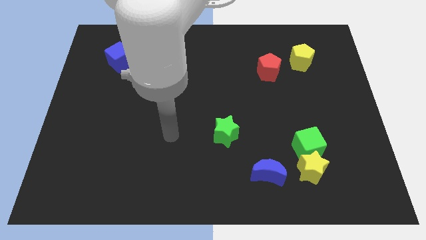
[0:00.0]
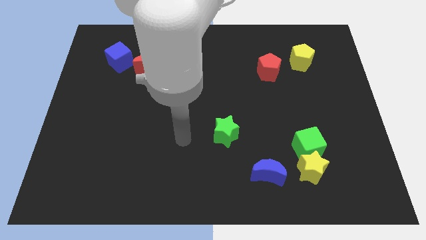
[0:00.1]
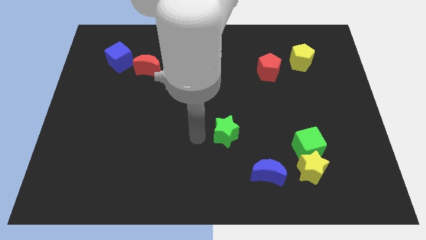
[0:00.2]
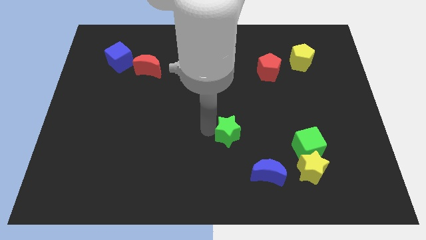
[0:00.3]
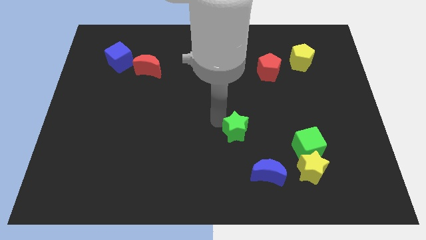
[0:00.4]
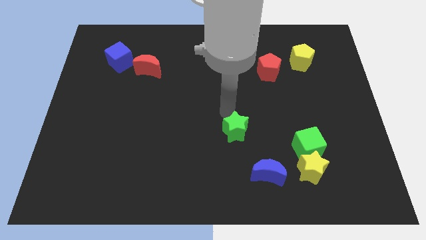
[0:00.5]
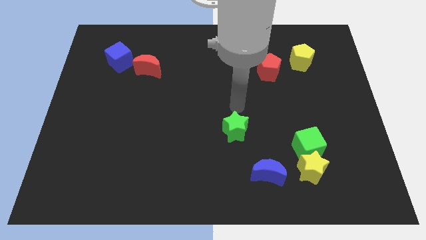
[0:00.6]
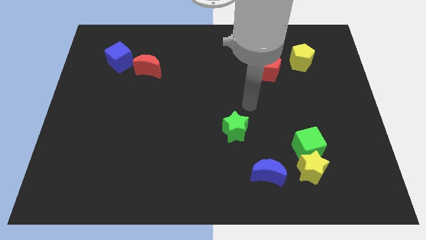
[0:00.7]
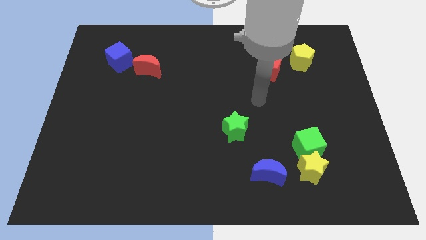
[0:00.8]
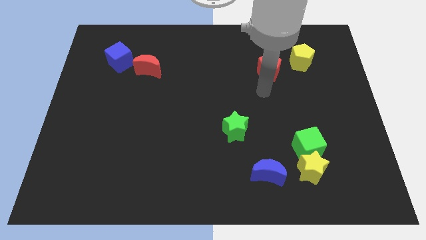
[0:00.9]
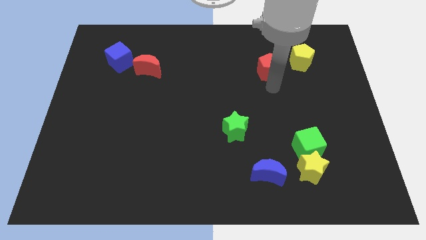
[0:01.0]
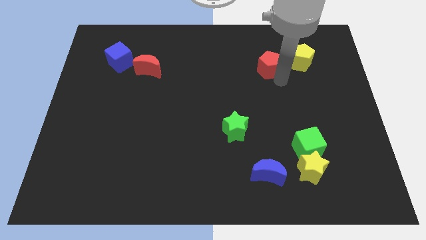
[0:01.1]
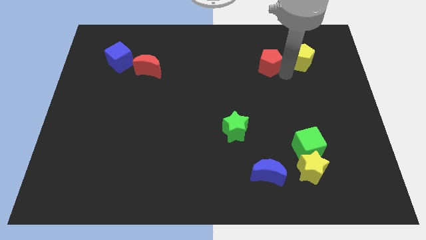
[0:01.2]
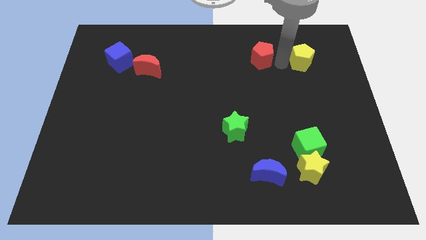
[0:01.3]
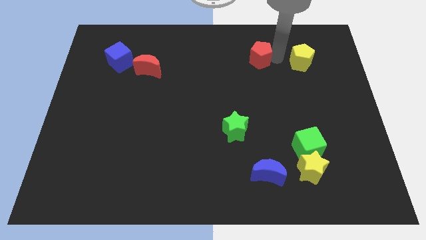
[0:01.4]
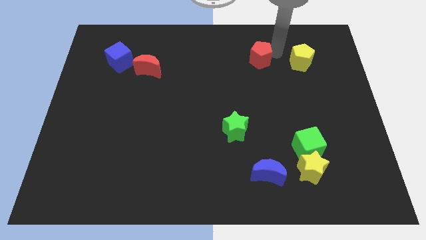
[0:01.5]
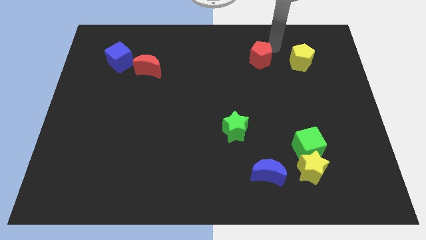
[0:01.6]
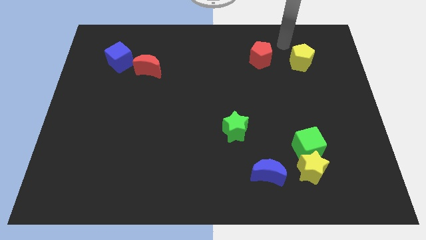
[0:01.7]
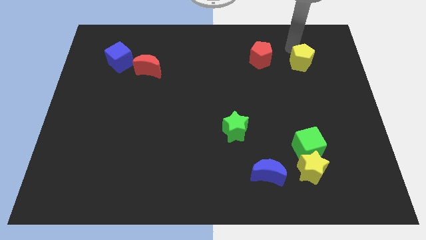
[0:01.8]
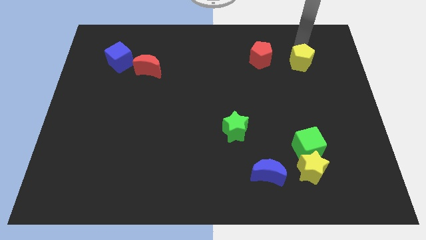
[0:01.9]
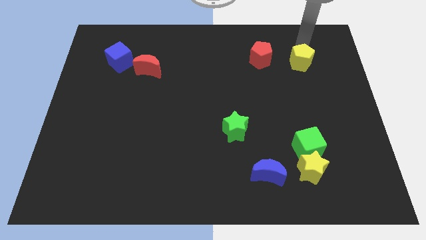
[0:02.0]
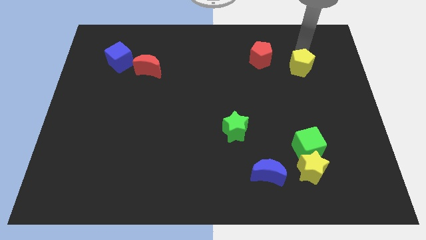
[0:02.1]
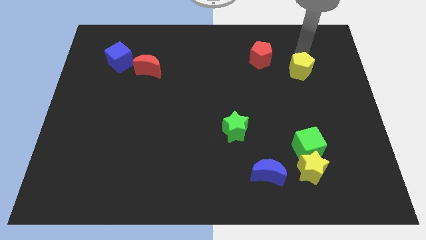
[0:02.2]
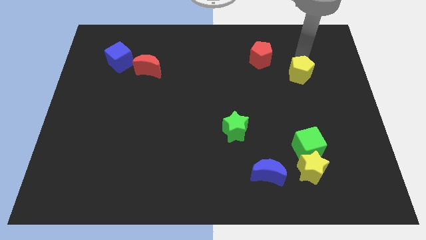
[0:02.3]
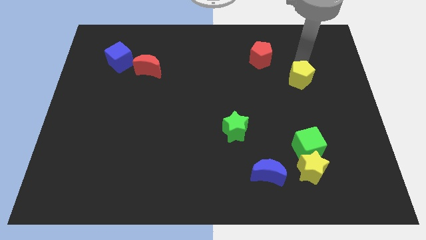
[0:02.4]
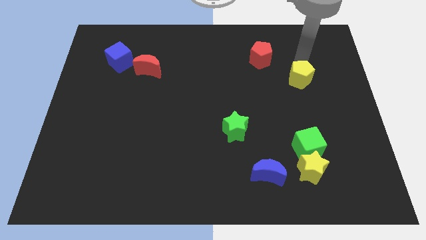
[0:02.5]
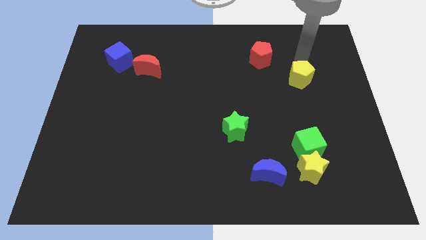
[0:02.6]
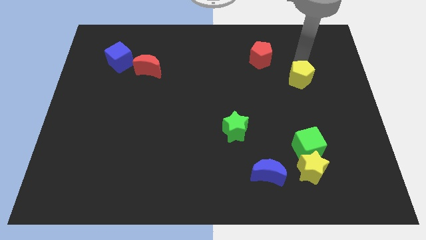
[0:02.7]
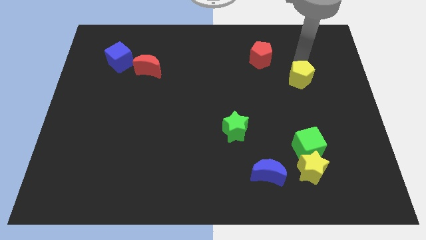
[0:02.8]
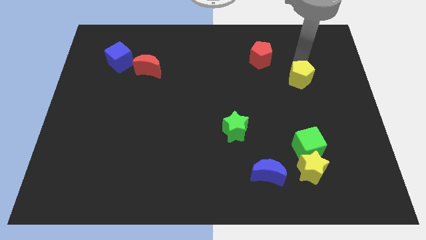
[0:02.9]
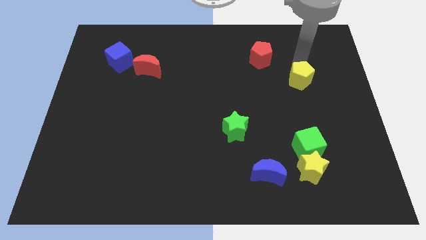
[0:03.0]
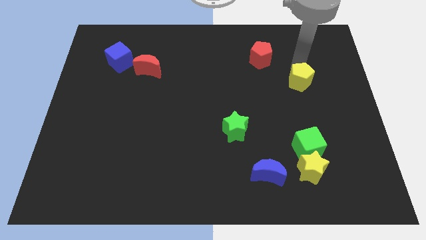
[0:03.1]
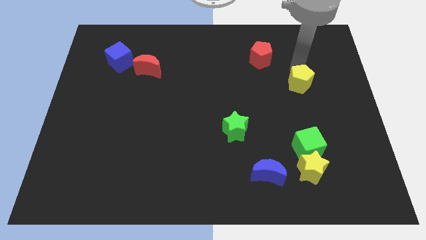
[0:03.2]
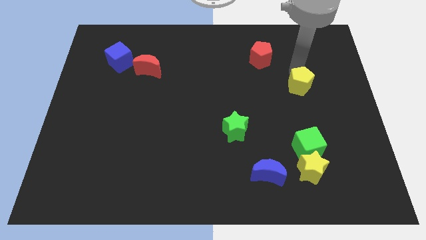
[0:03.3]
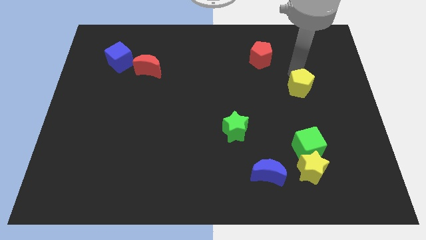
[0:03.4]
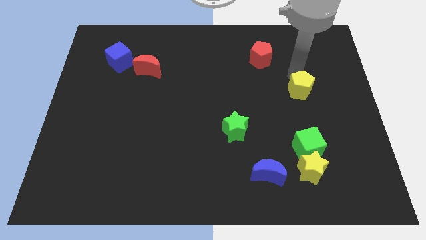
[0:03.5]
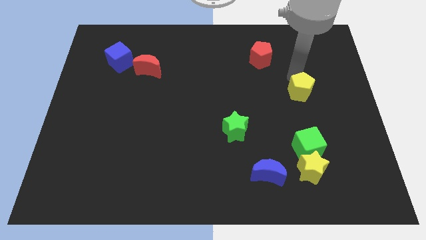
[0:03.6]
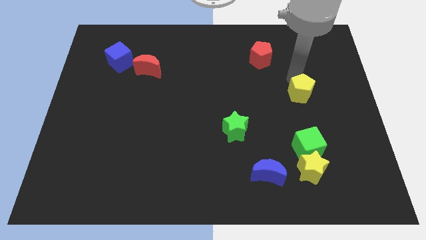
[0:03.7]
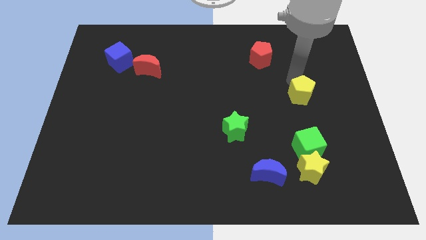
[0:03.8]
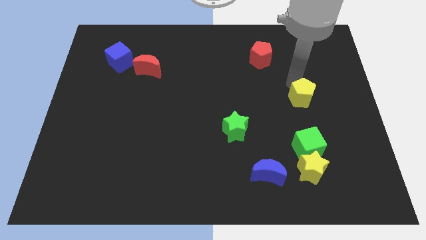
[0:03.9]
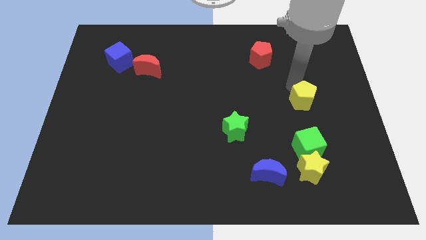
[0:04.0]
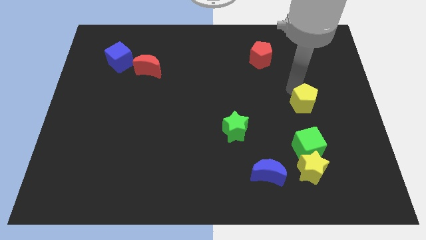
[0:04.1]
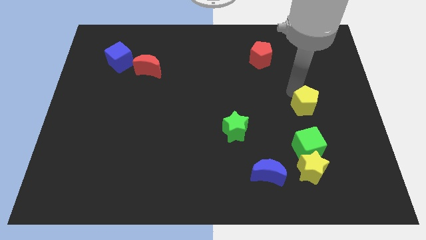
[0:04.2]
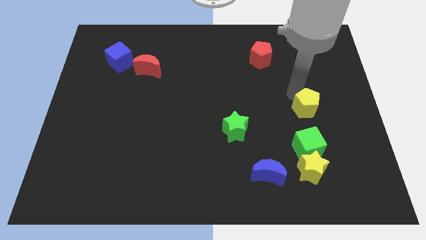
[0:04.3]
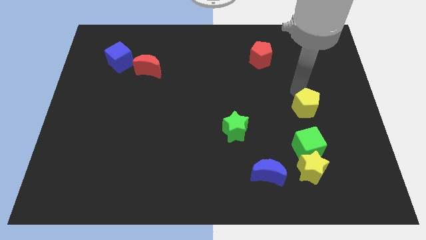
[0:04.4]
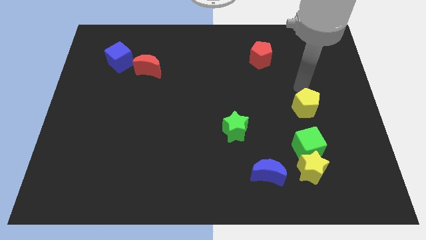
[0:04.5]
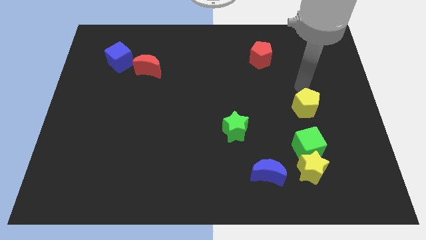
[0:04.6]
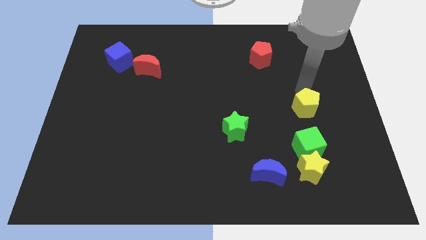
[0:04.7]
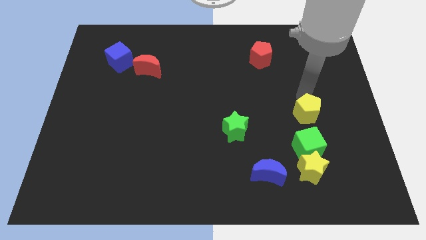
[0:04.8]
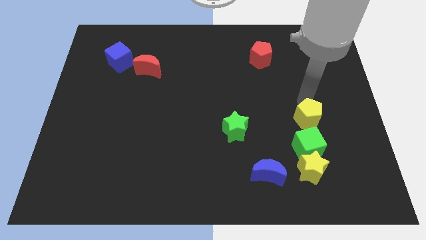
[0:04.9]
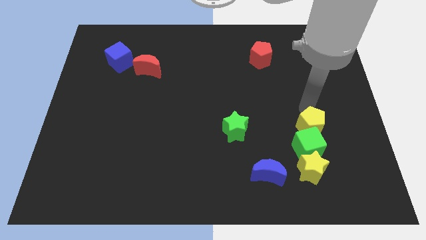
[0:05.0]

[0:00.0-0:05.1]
put the yellow pentagon towards the green cube

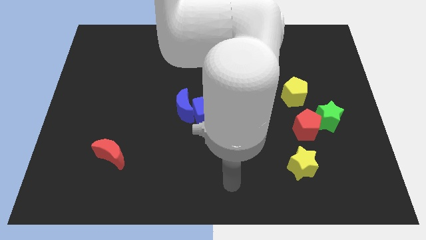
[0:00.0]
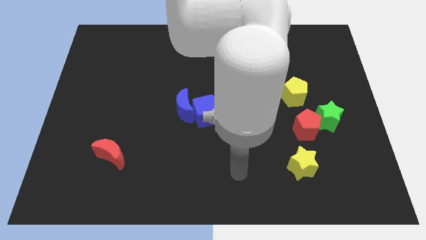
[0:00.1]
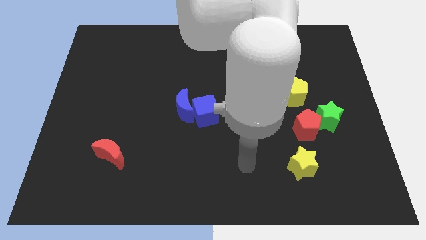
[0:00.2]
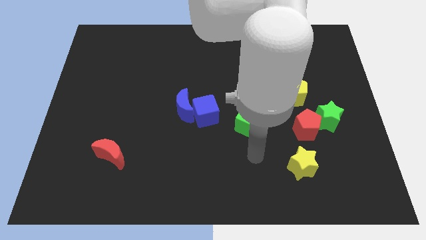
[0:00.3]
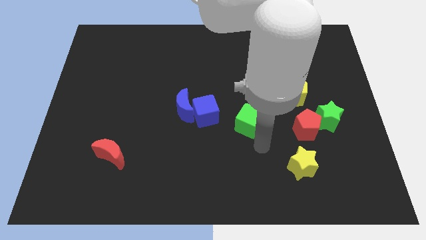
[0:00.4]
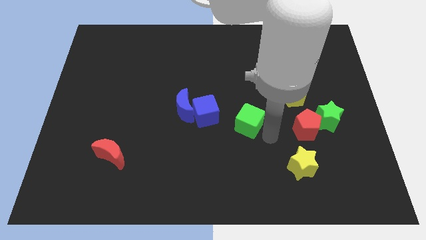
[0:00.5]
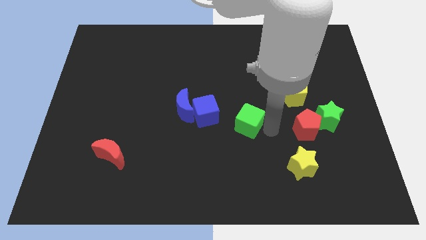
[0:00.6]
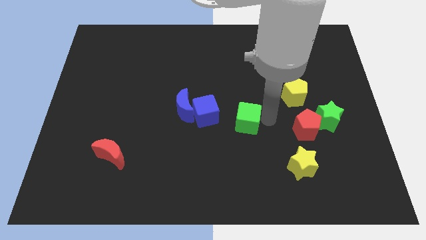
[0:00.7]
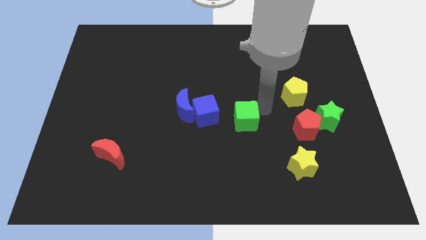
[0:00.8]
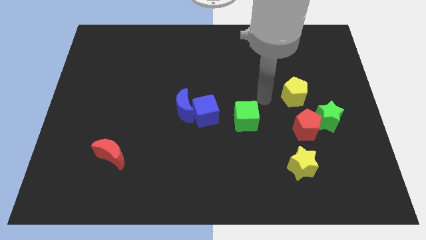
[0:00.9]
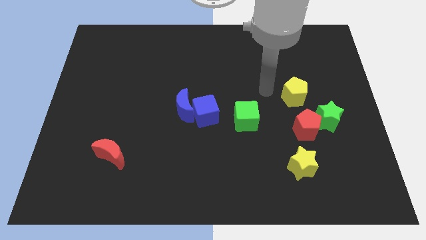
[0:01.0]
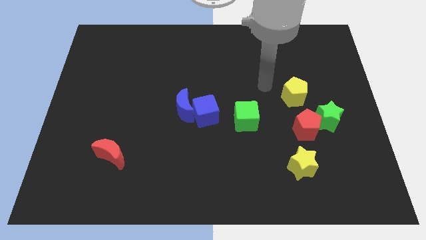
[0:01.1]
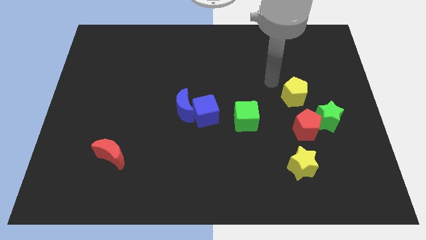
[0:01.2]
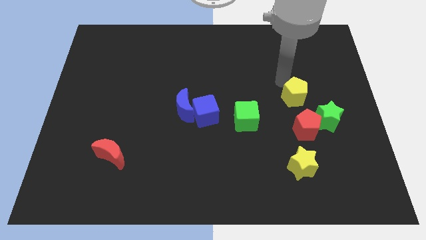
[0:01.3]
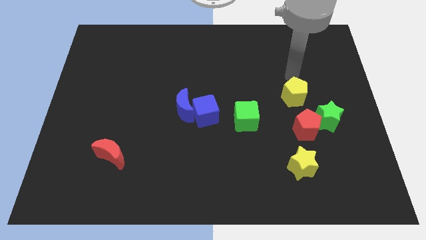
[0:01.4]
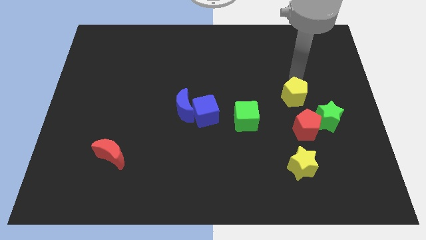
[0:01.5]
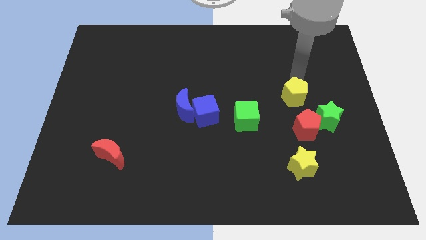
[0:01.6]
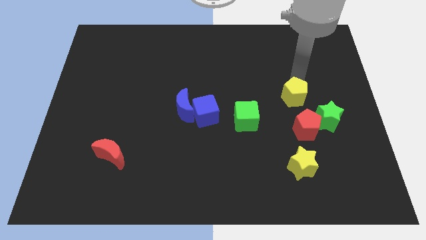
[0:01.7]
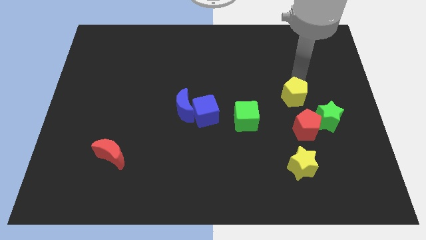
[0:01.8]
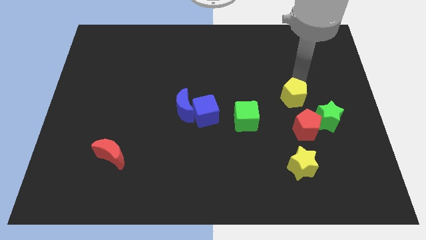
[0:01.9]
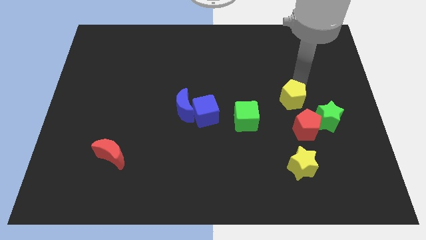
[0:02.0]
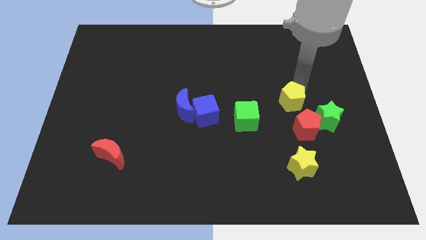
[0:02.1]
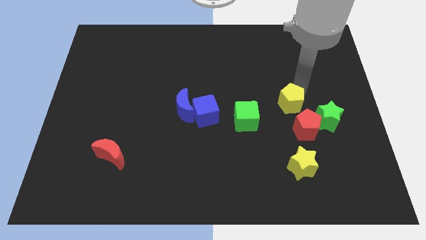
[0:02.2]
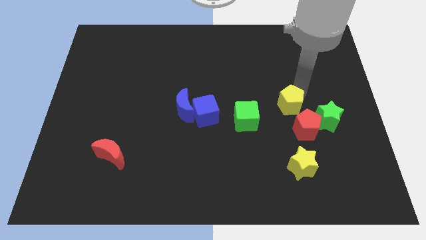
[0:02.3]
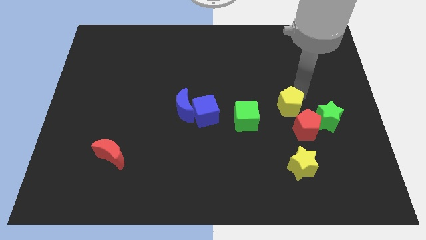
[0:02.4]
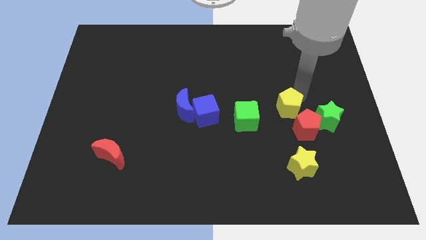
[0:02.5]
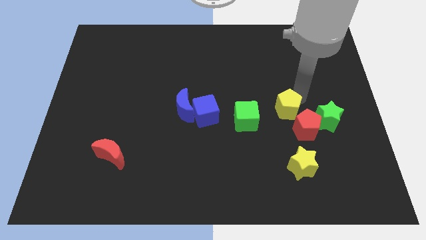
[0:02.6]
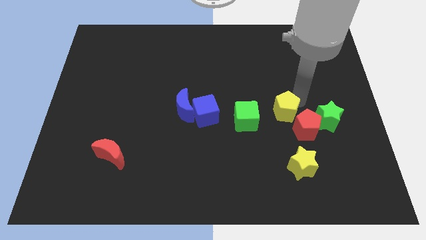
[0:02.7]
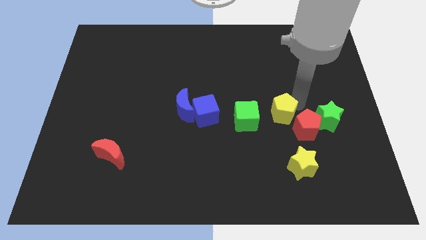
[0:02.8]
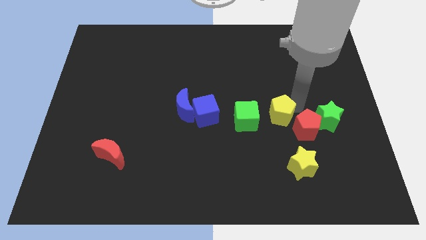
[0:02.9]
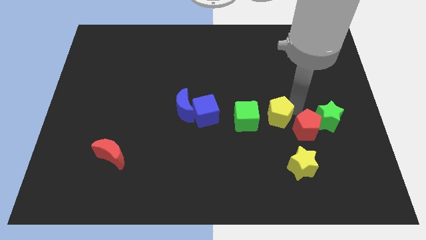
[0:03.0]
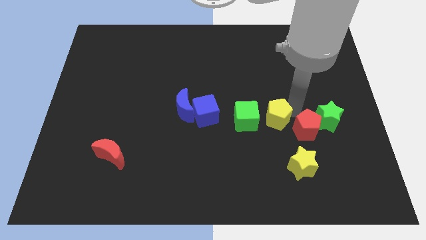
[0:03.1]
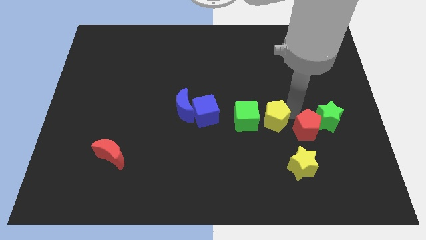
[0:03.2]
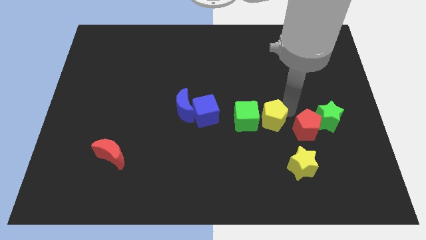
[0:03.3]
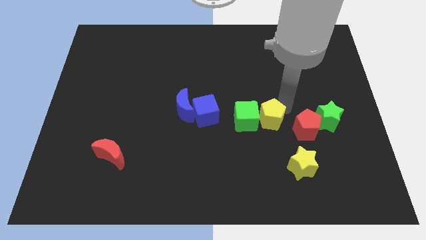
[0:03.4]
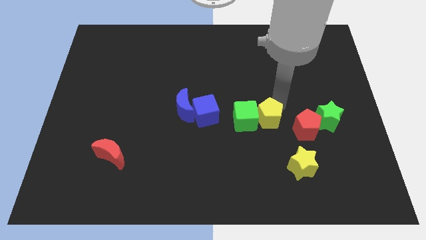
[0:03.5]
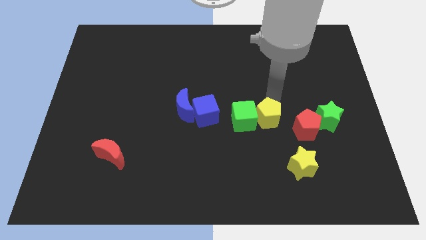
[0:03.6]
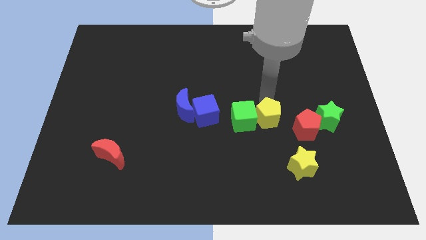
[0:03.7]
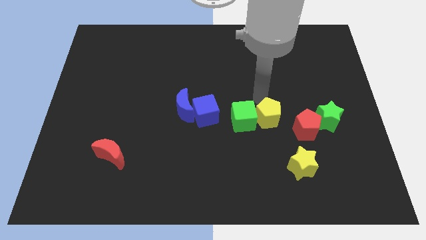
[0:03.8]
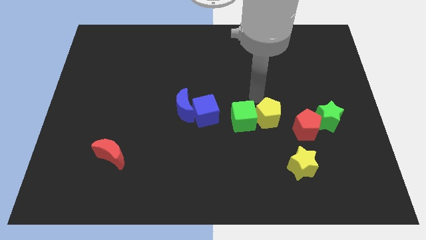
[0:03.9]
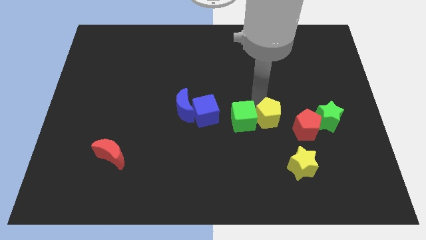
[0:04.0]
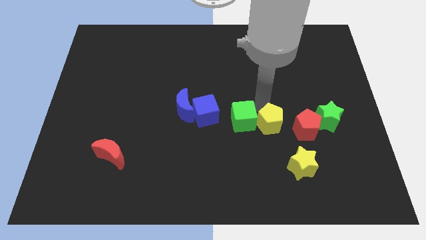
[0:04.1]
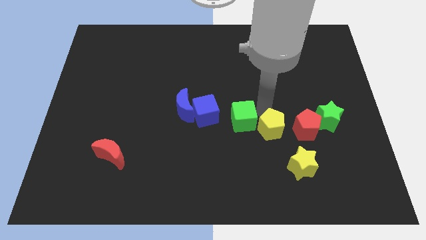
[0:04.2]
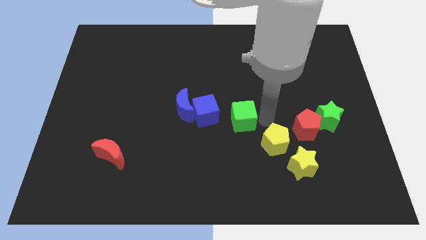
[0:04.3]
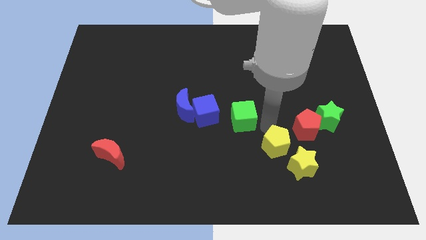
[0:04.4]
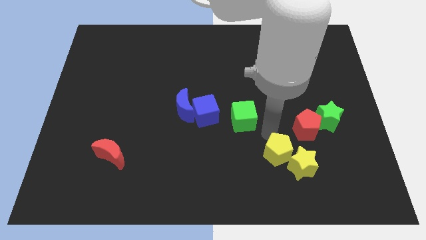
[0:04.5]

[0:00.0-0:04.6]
push the yellow pentagon to the yellow star
